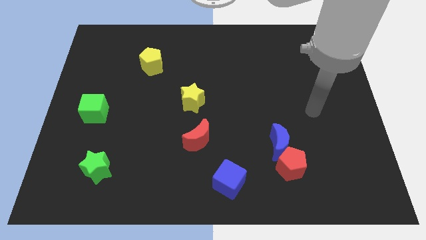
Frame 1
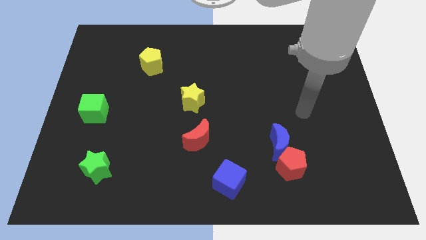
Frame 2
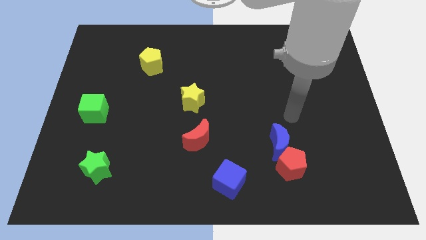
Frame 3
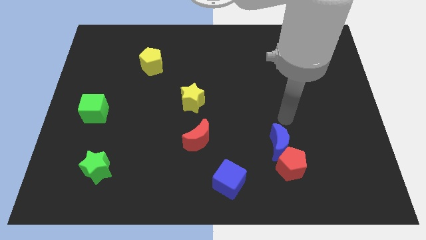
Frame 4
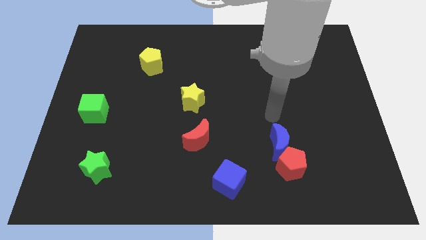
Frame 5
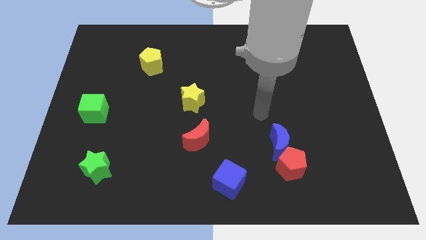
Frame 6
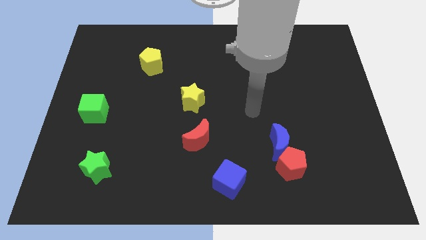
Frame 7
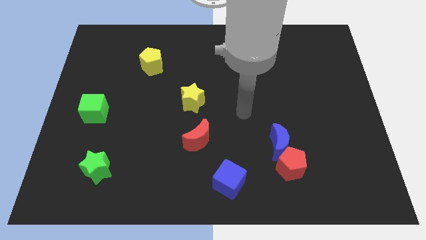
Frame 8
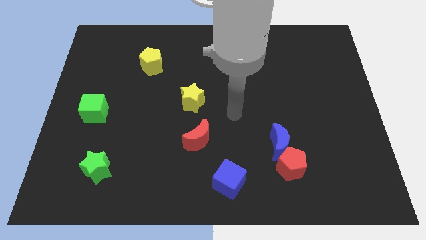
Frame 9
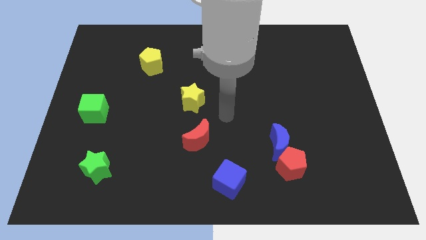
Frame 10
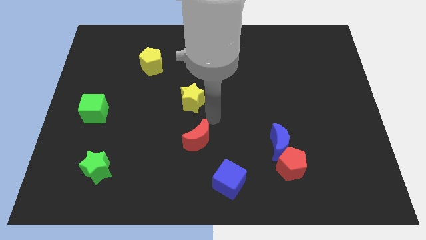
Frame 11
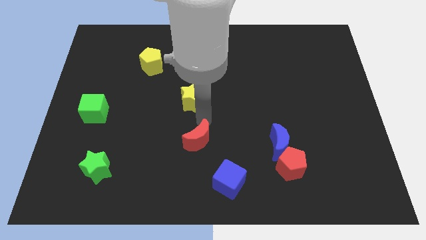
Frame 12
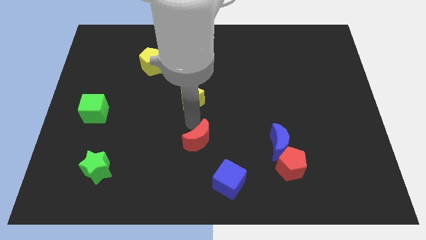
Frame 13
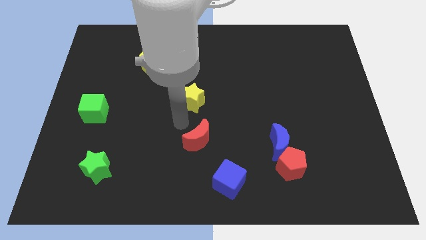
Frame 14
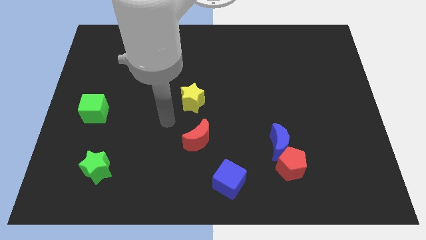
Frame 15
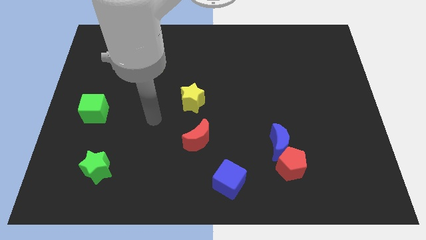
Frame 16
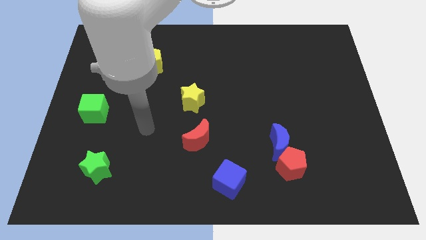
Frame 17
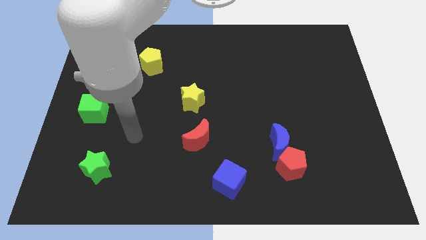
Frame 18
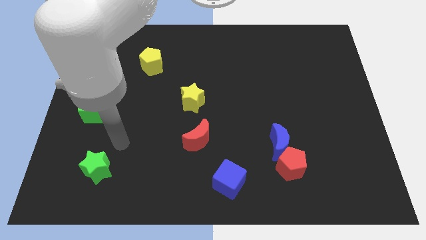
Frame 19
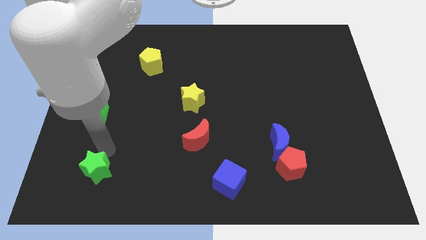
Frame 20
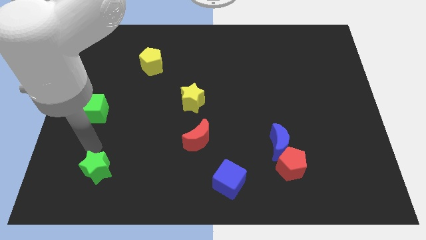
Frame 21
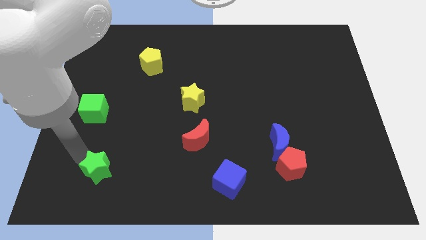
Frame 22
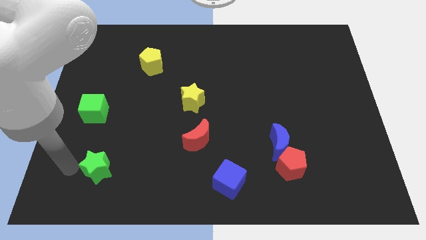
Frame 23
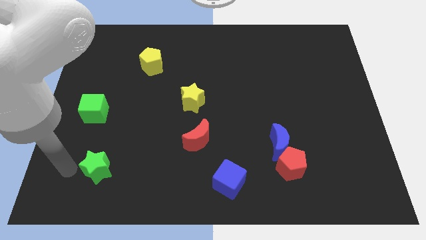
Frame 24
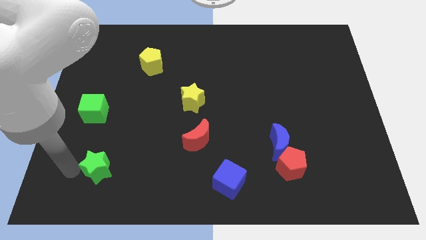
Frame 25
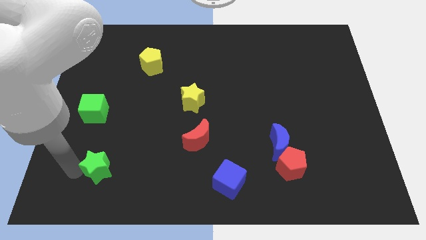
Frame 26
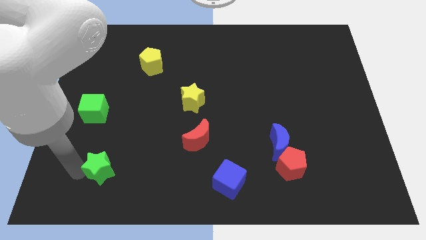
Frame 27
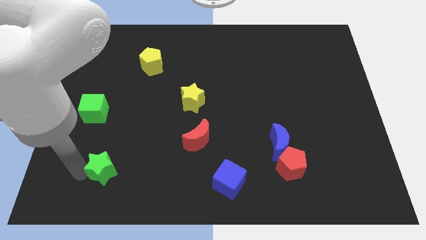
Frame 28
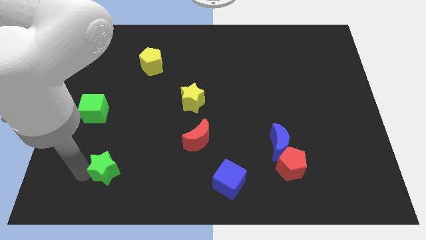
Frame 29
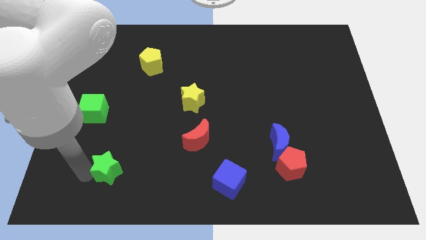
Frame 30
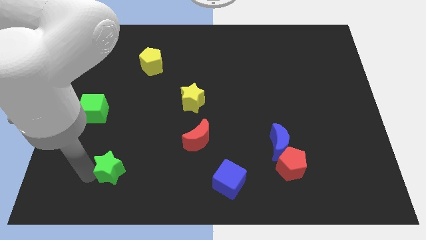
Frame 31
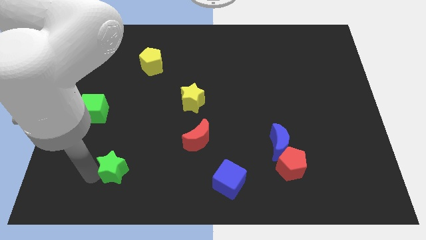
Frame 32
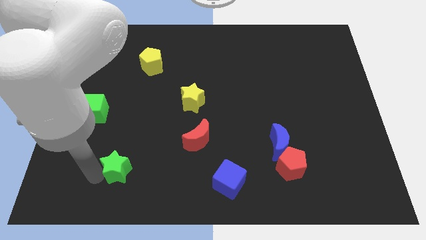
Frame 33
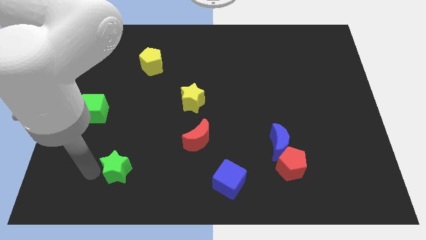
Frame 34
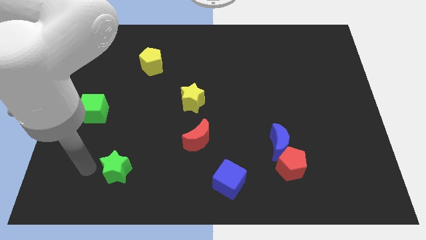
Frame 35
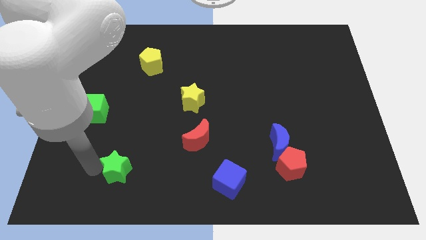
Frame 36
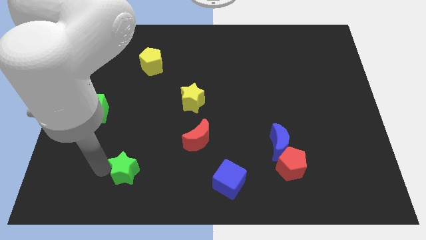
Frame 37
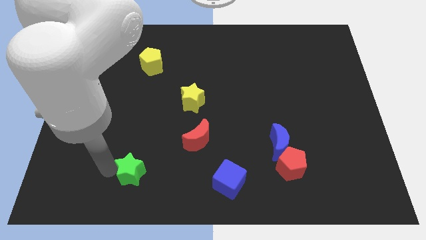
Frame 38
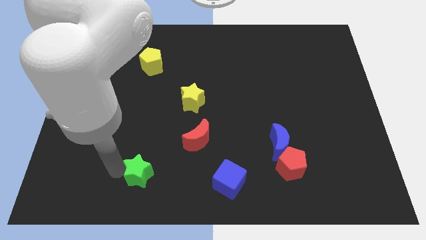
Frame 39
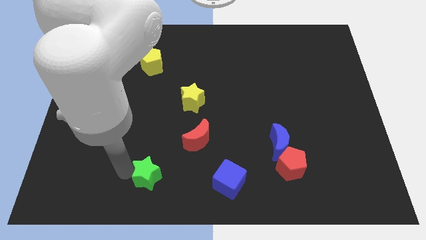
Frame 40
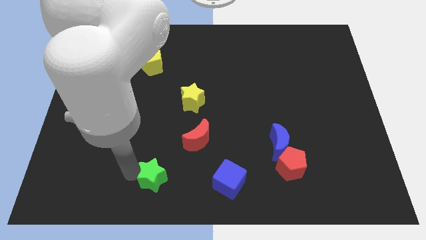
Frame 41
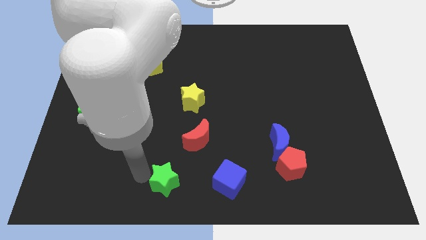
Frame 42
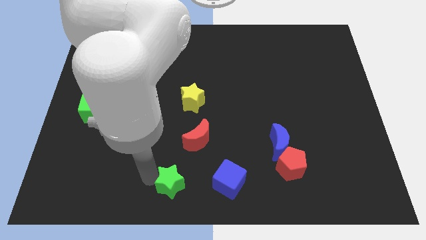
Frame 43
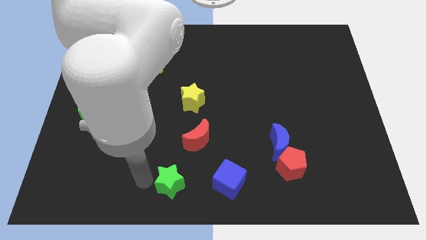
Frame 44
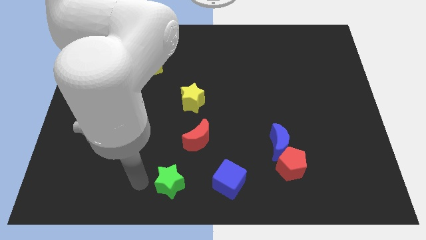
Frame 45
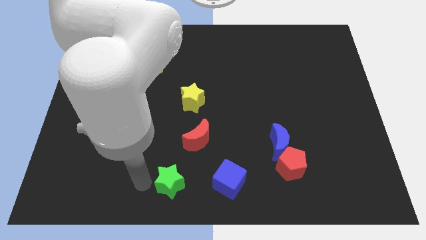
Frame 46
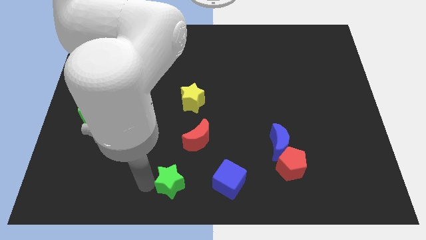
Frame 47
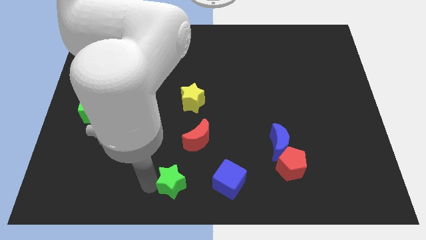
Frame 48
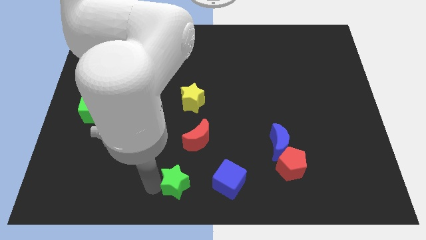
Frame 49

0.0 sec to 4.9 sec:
push the green star to the bottom of the red moon

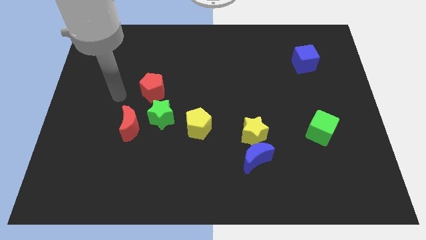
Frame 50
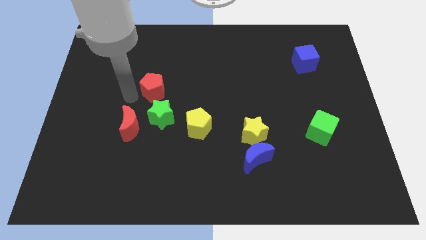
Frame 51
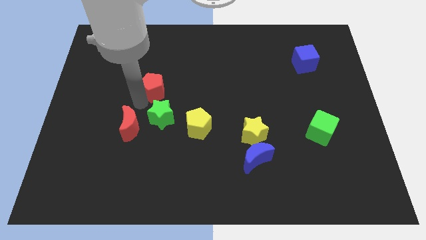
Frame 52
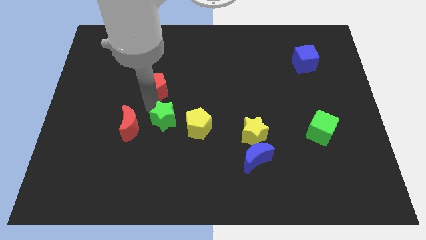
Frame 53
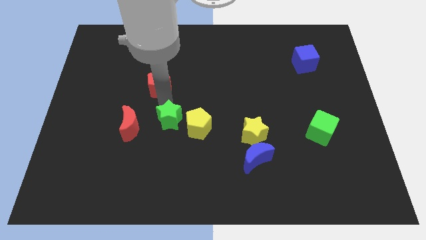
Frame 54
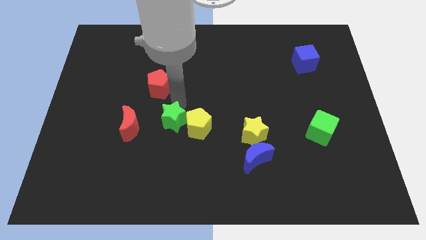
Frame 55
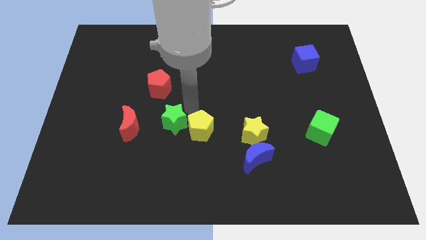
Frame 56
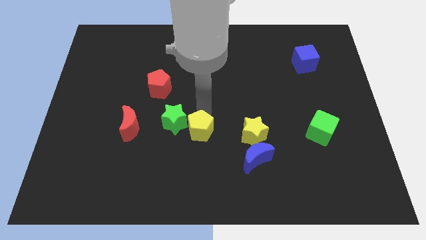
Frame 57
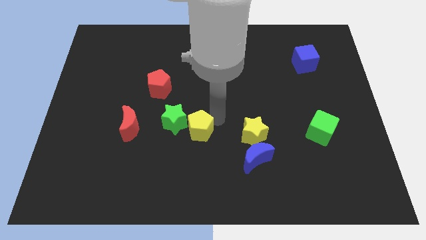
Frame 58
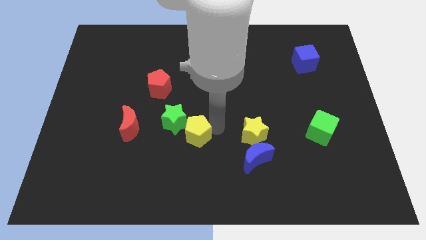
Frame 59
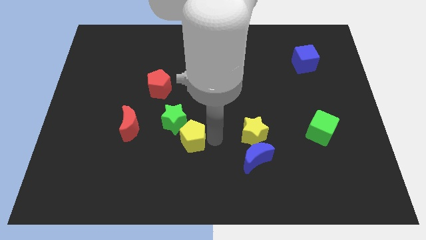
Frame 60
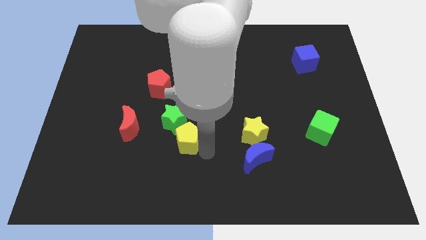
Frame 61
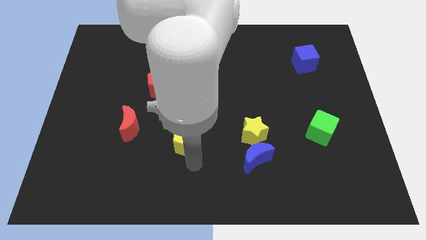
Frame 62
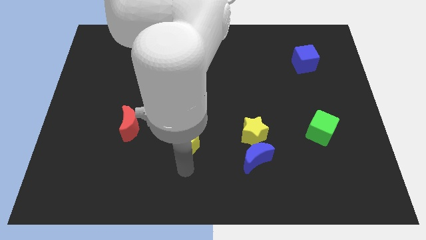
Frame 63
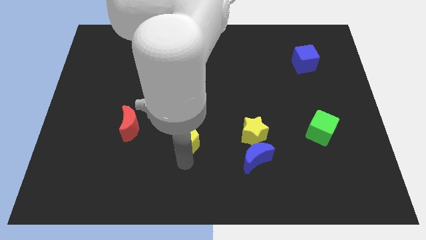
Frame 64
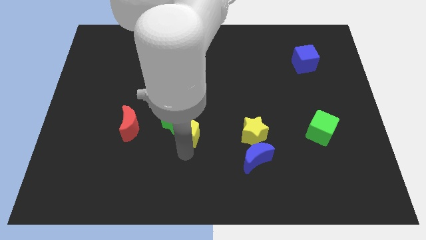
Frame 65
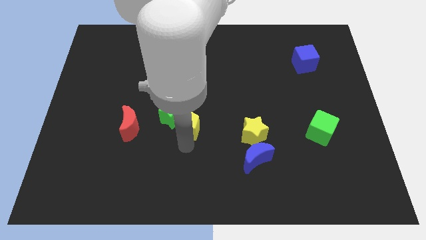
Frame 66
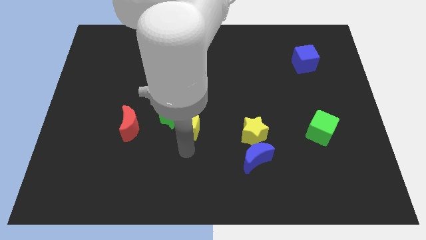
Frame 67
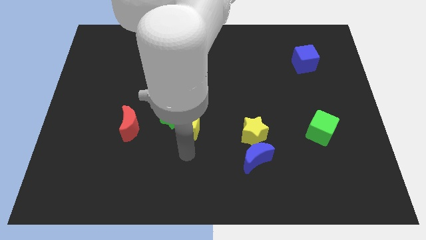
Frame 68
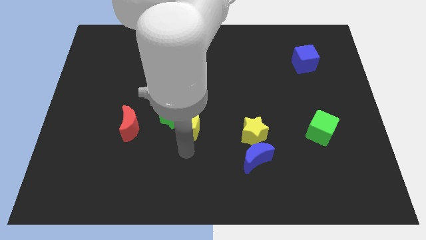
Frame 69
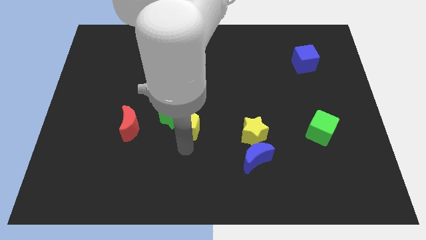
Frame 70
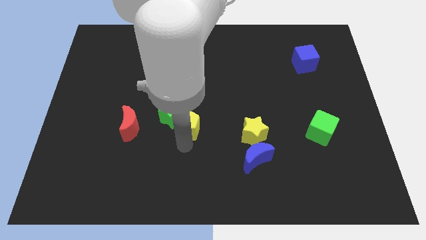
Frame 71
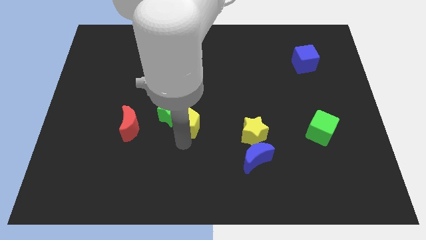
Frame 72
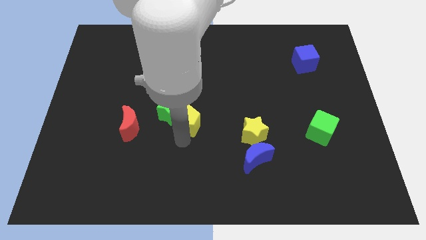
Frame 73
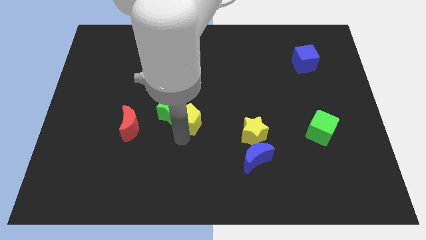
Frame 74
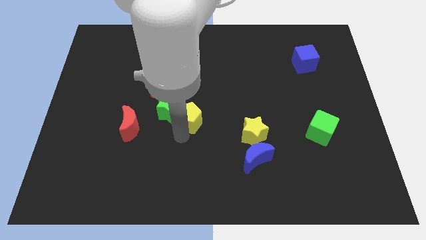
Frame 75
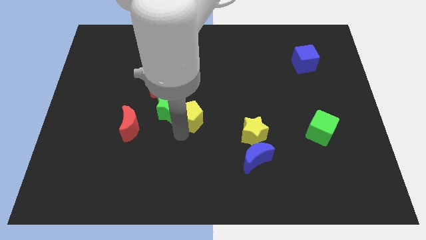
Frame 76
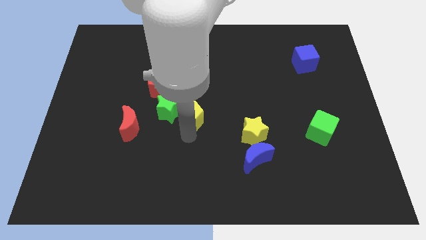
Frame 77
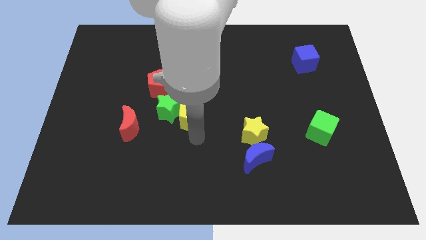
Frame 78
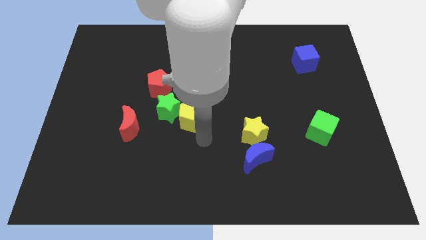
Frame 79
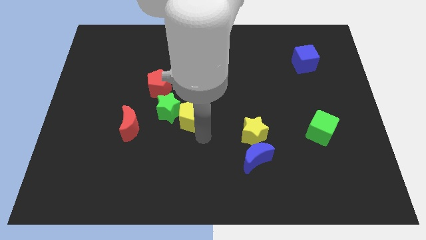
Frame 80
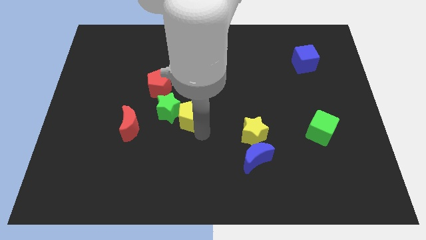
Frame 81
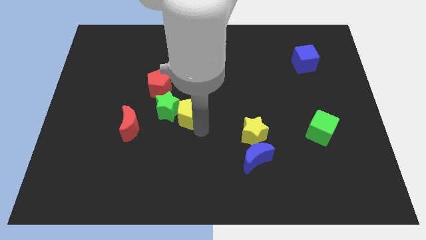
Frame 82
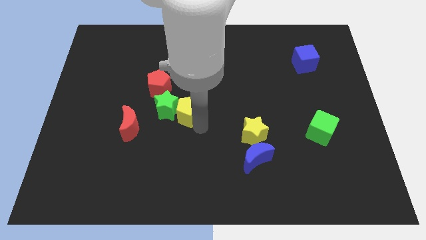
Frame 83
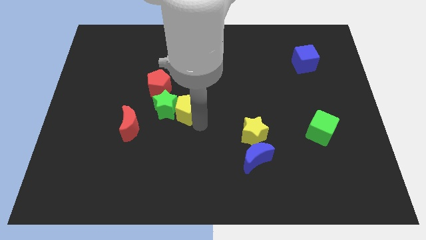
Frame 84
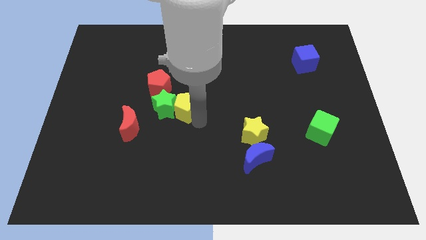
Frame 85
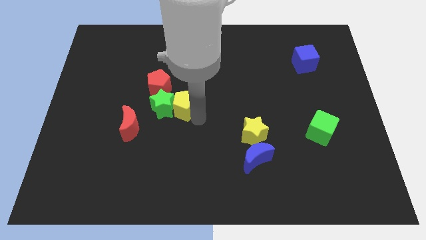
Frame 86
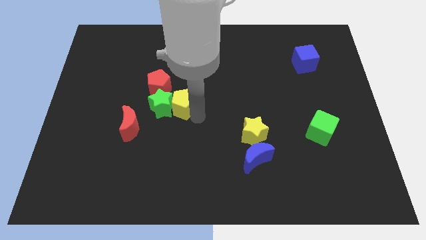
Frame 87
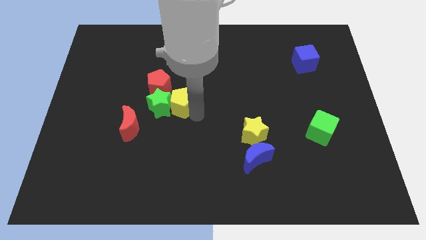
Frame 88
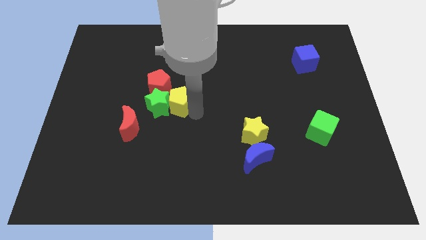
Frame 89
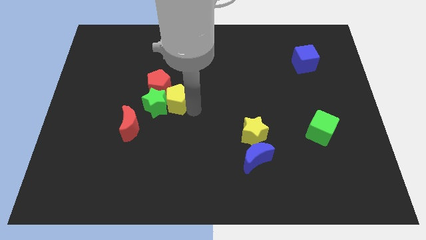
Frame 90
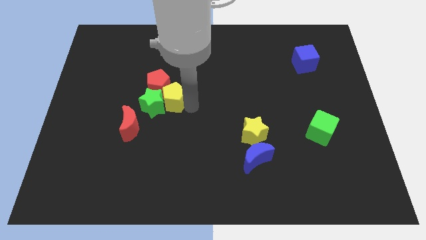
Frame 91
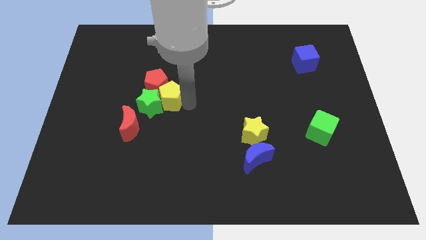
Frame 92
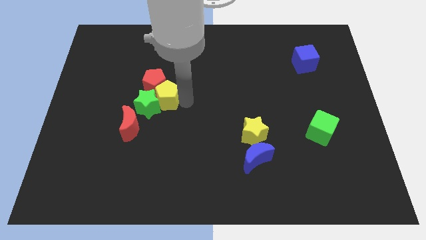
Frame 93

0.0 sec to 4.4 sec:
slide the yellow pentagon to the top side of the green star
